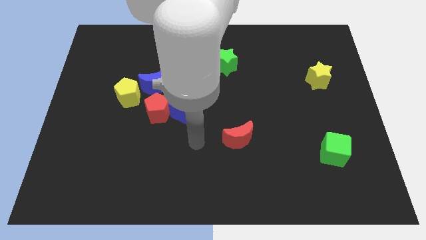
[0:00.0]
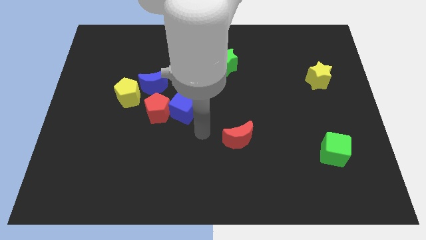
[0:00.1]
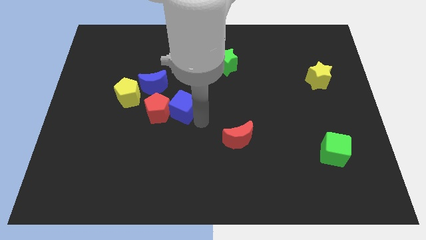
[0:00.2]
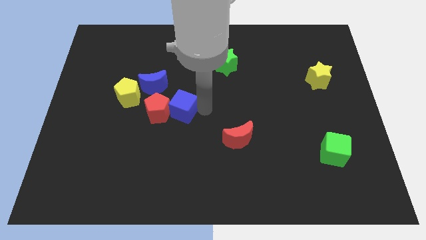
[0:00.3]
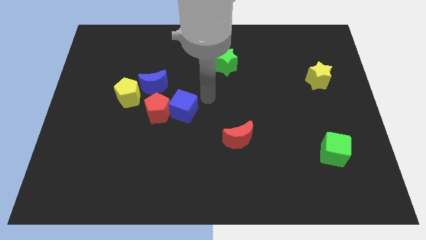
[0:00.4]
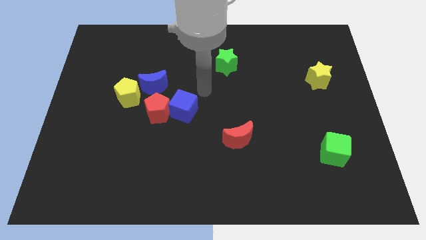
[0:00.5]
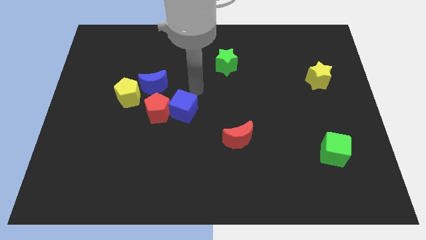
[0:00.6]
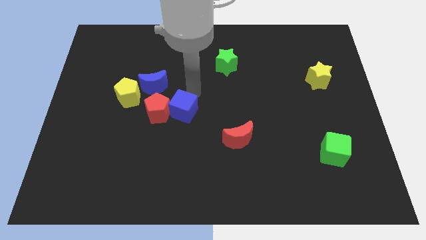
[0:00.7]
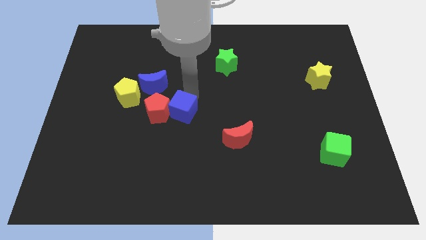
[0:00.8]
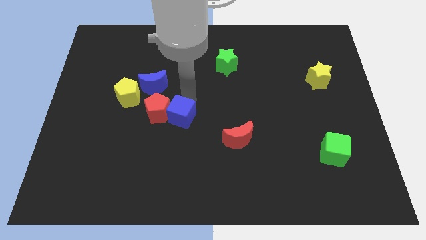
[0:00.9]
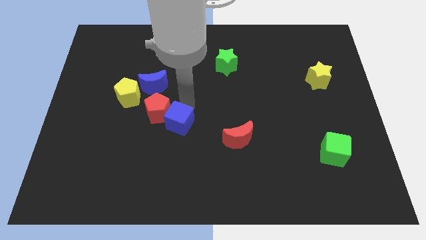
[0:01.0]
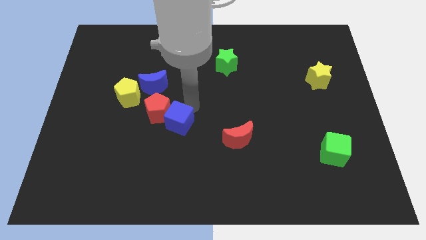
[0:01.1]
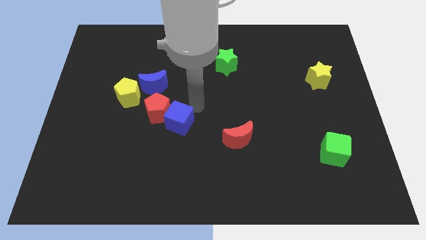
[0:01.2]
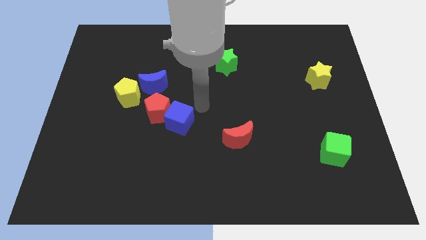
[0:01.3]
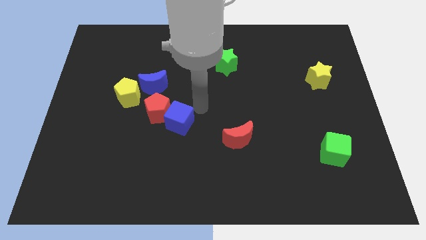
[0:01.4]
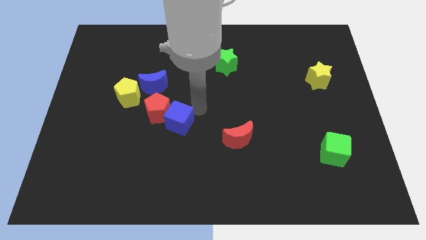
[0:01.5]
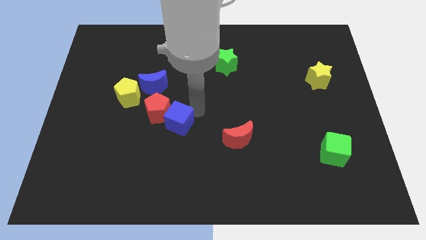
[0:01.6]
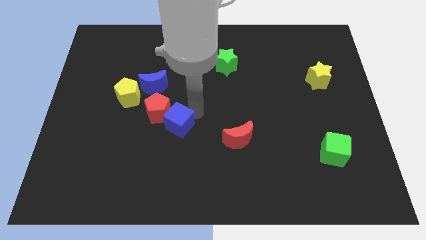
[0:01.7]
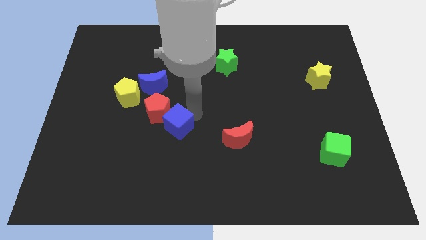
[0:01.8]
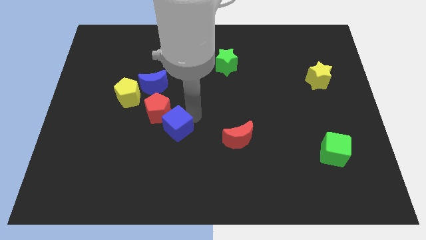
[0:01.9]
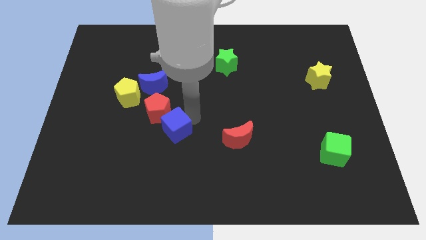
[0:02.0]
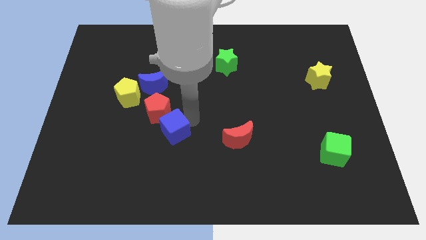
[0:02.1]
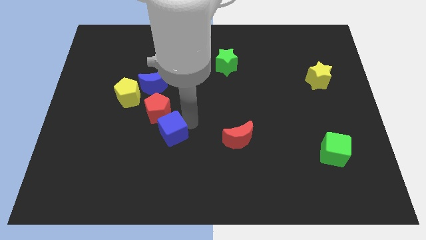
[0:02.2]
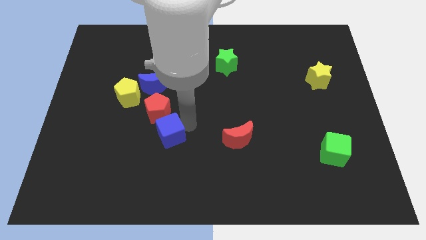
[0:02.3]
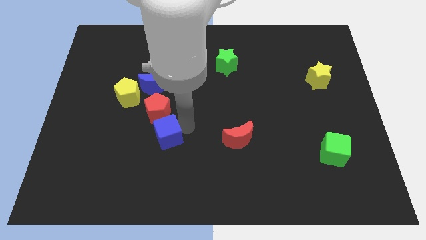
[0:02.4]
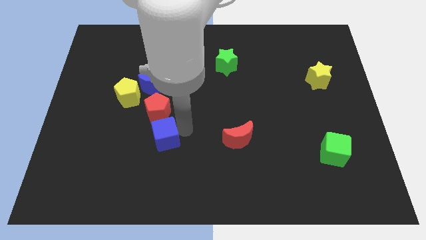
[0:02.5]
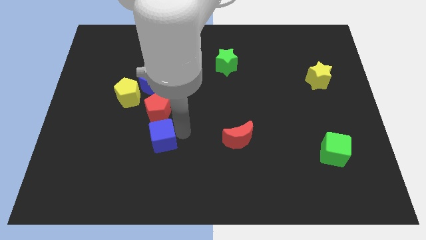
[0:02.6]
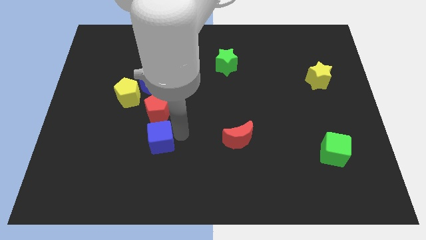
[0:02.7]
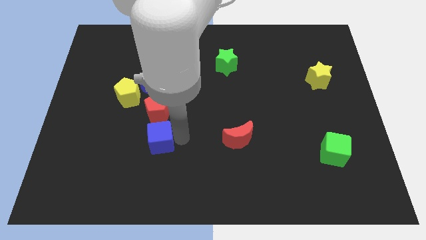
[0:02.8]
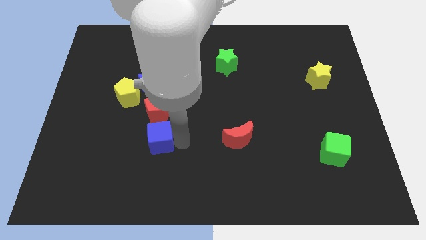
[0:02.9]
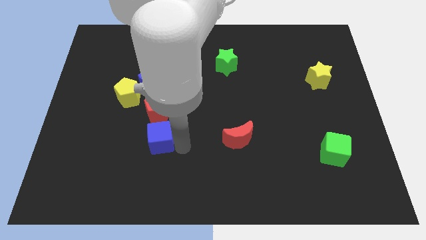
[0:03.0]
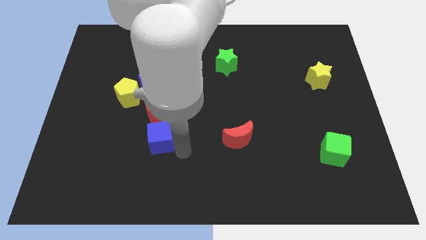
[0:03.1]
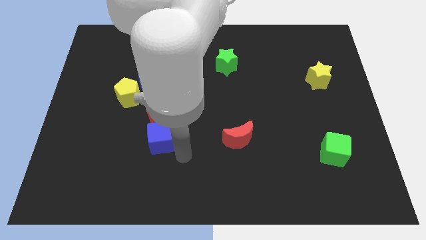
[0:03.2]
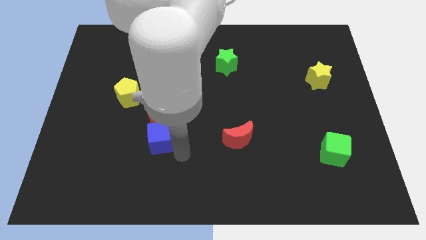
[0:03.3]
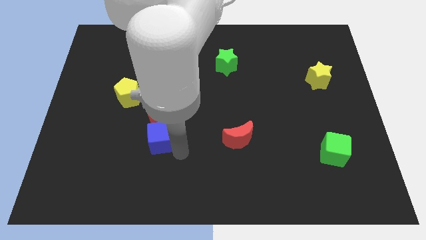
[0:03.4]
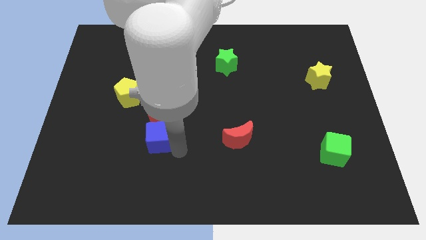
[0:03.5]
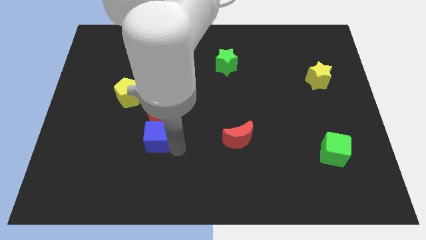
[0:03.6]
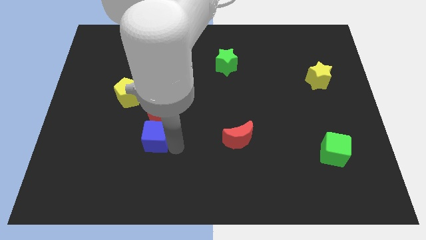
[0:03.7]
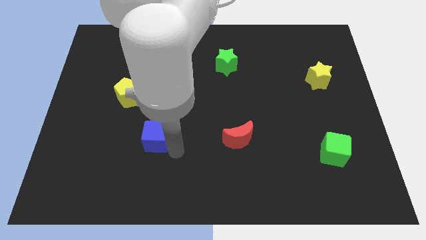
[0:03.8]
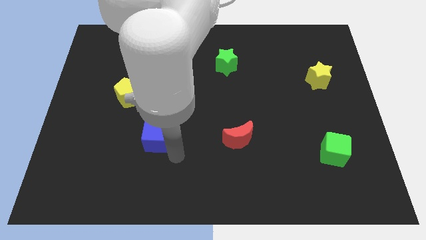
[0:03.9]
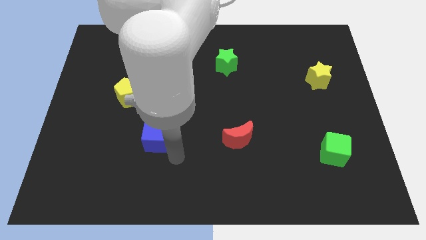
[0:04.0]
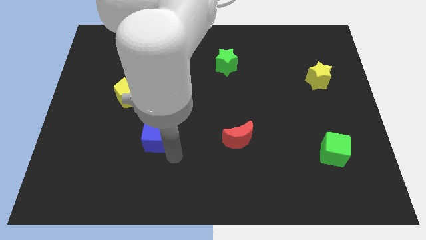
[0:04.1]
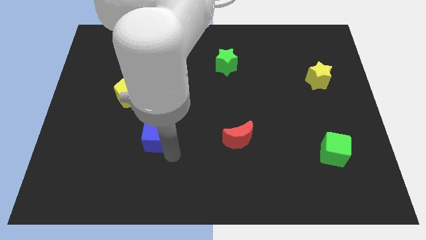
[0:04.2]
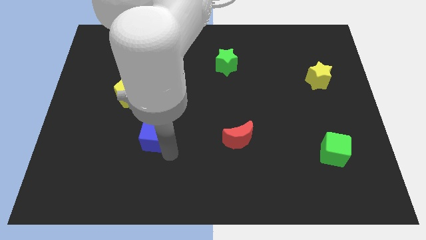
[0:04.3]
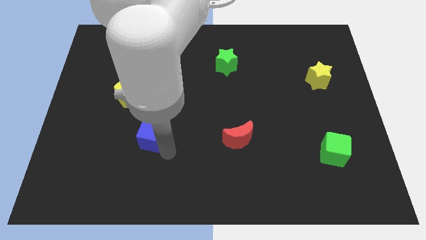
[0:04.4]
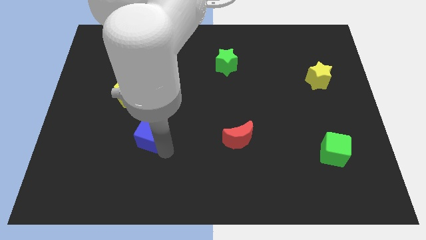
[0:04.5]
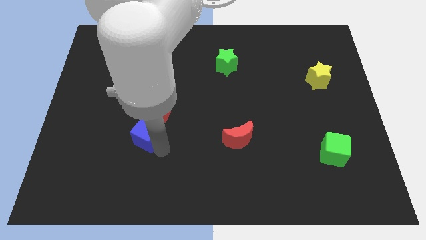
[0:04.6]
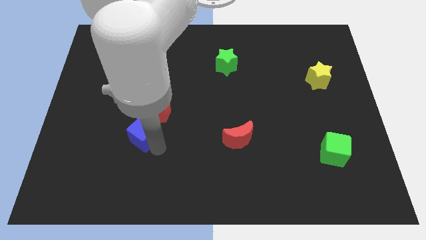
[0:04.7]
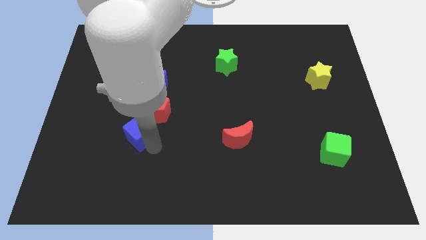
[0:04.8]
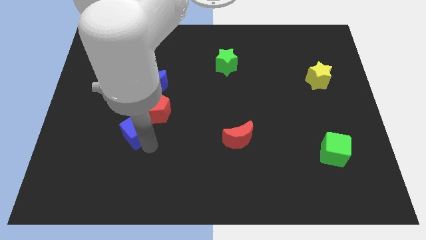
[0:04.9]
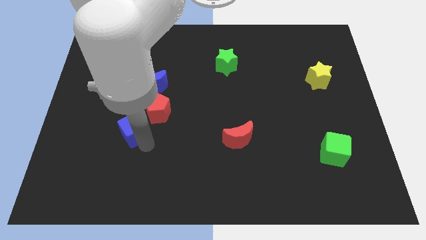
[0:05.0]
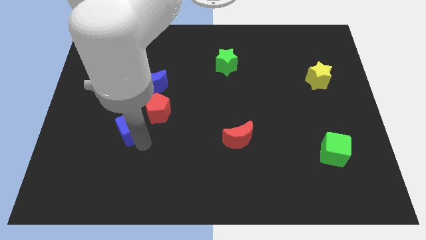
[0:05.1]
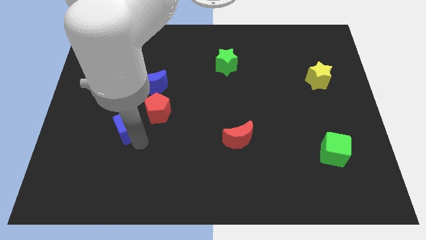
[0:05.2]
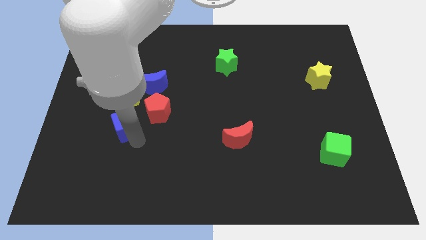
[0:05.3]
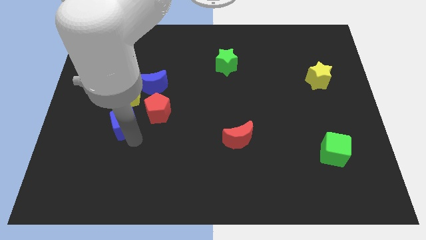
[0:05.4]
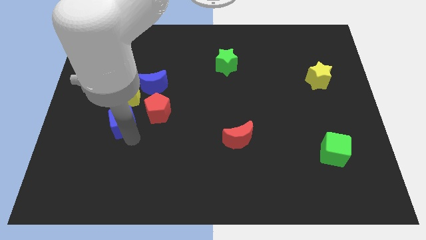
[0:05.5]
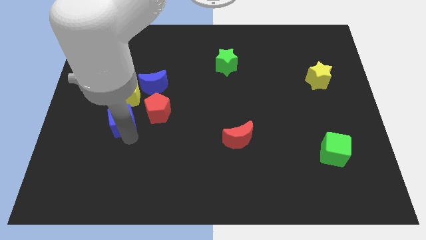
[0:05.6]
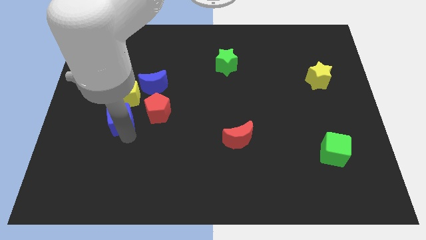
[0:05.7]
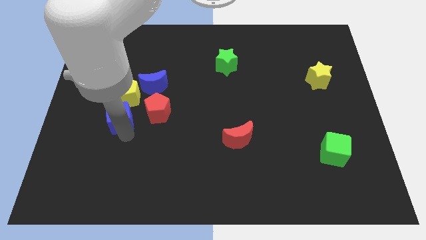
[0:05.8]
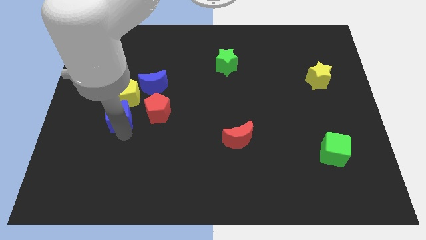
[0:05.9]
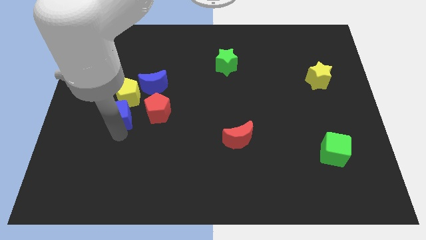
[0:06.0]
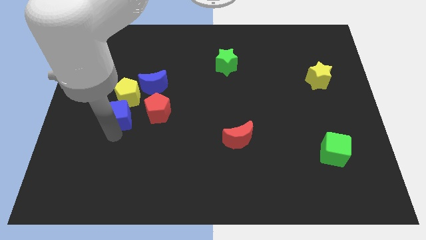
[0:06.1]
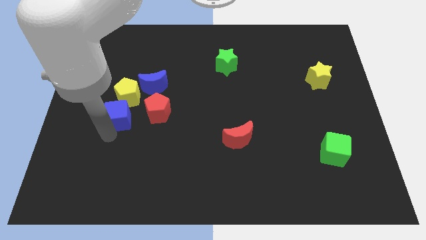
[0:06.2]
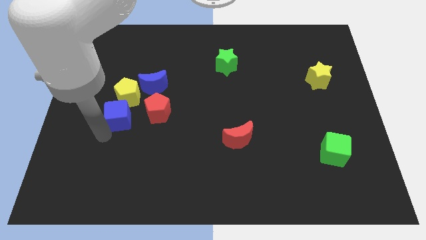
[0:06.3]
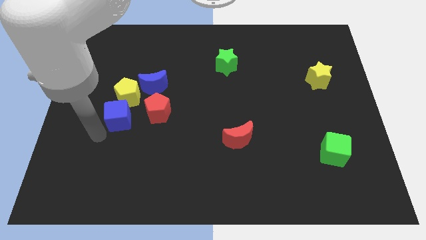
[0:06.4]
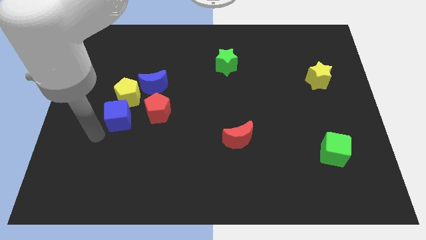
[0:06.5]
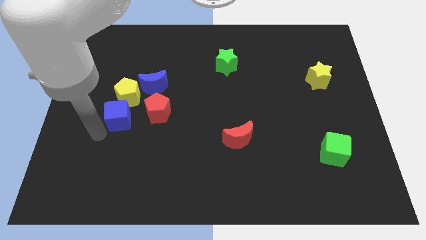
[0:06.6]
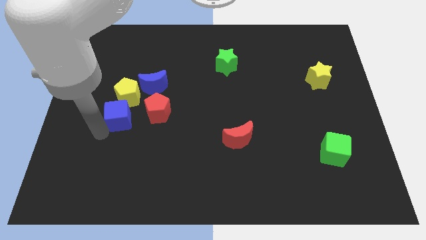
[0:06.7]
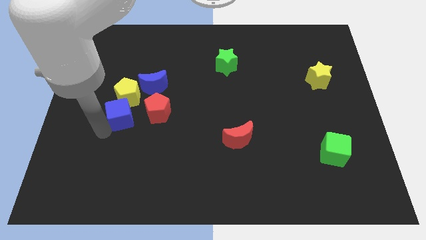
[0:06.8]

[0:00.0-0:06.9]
slide the blue cube towards the yellow pentagon
